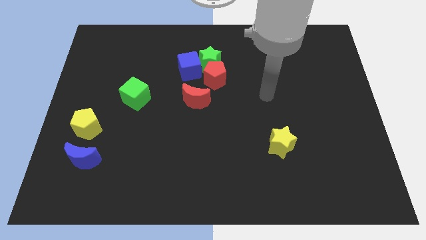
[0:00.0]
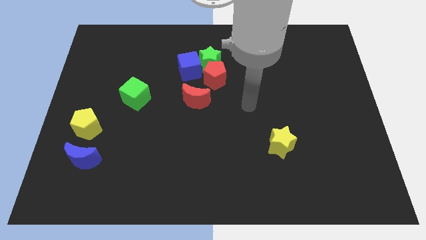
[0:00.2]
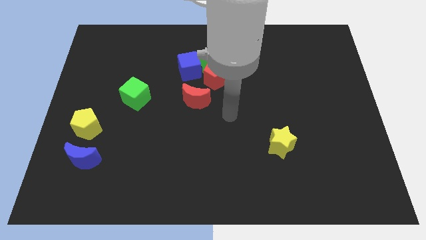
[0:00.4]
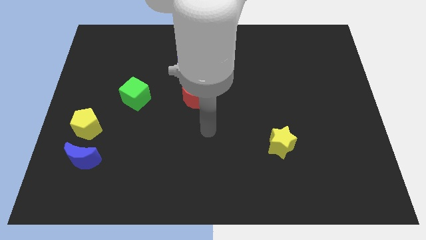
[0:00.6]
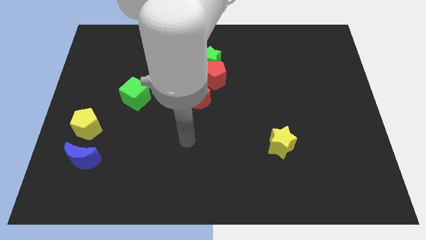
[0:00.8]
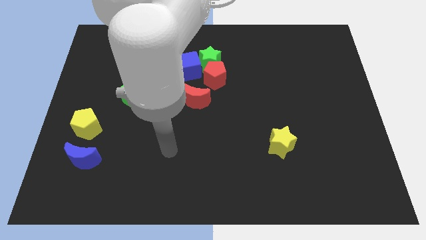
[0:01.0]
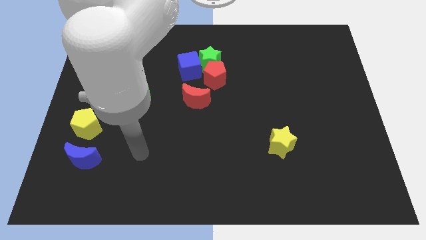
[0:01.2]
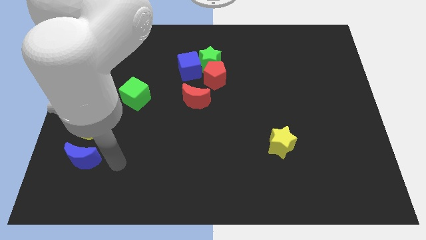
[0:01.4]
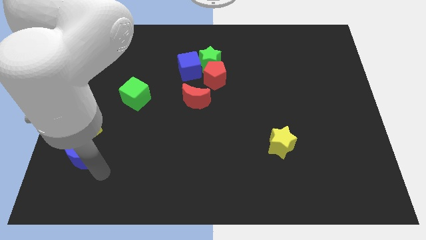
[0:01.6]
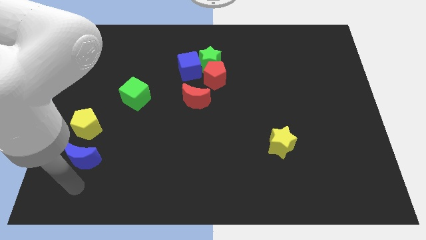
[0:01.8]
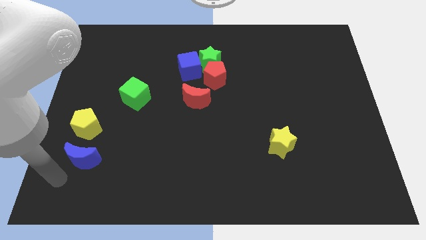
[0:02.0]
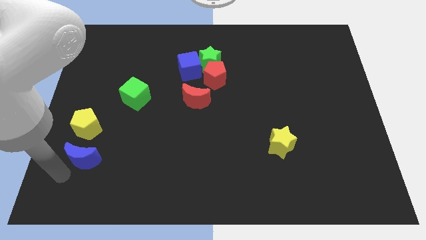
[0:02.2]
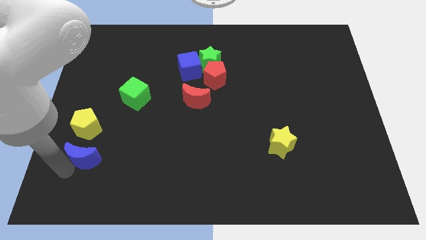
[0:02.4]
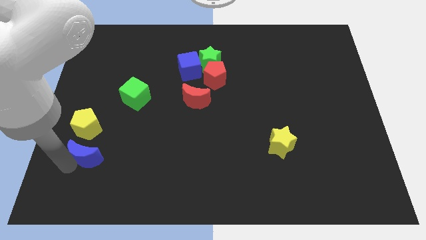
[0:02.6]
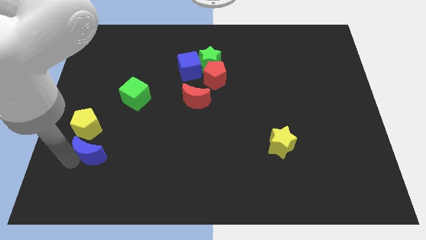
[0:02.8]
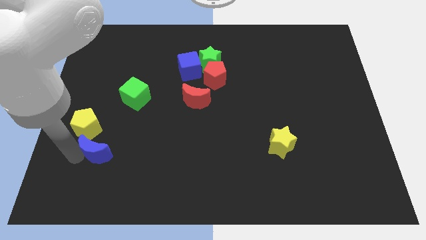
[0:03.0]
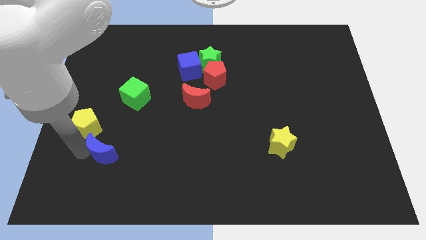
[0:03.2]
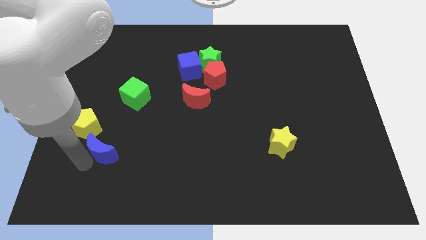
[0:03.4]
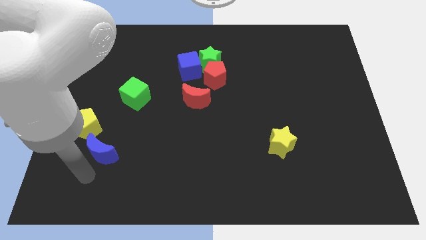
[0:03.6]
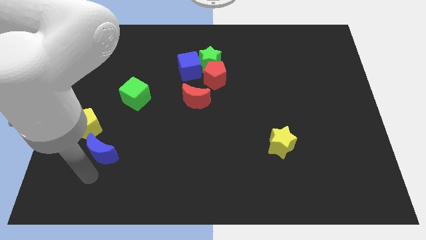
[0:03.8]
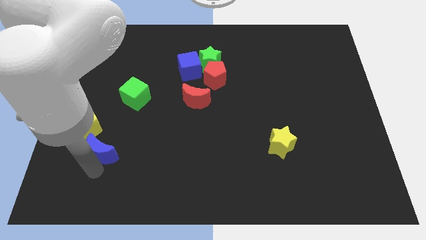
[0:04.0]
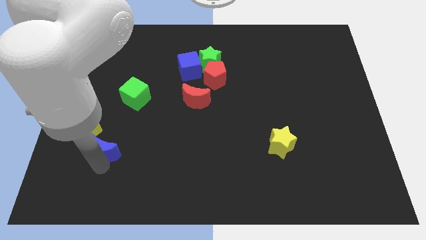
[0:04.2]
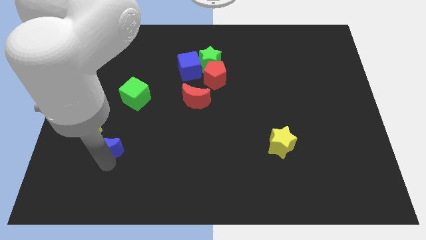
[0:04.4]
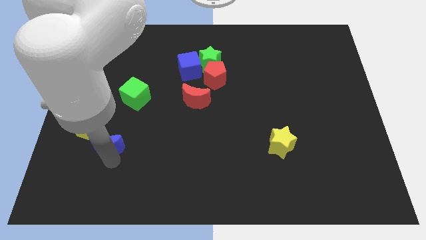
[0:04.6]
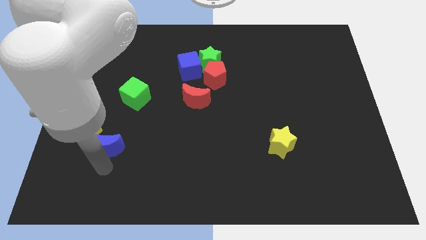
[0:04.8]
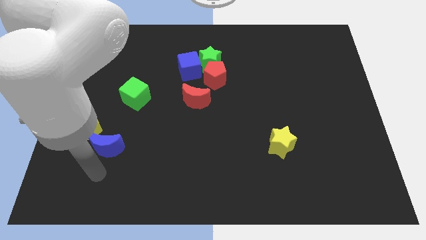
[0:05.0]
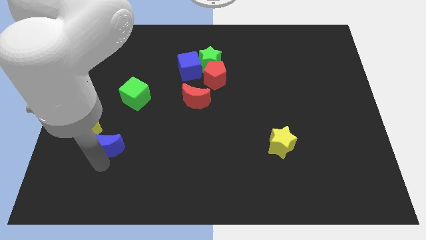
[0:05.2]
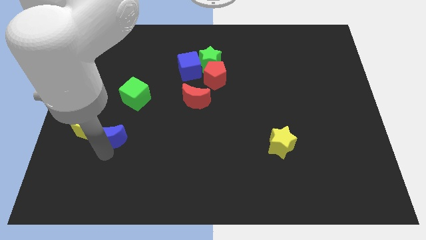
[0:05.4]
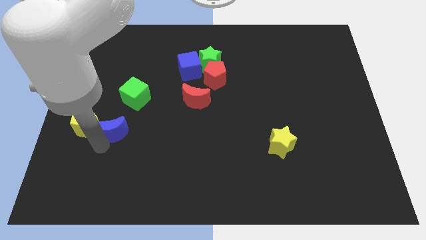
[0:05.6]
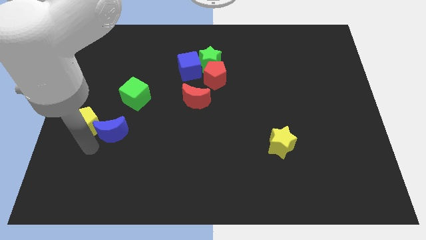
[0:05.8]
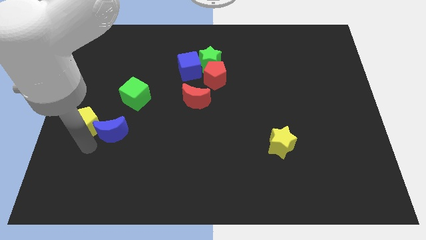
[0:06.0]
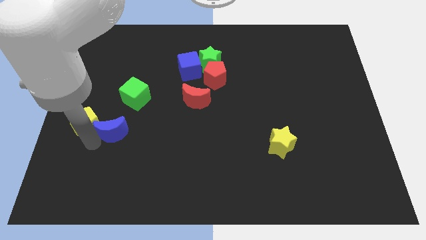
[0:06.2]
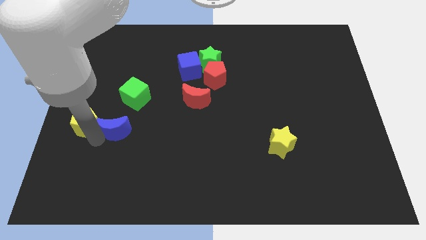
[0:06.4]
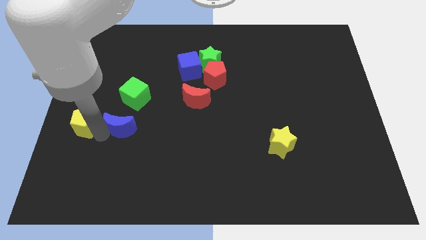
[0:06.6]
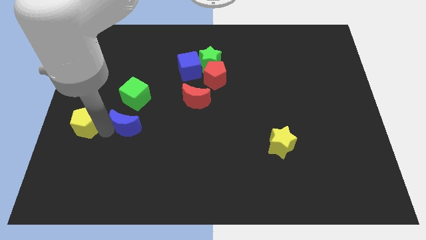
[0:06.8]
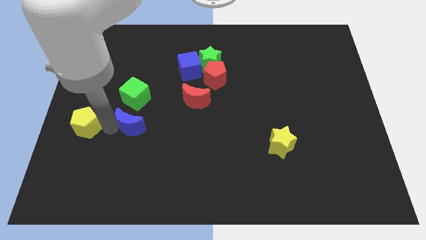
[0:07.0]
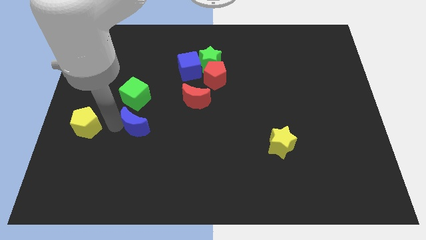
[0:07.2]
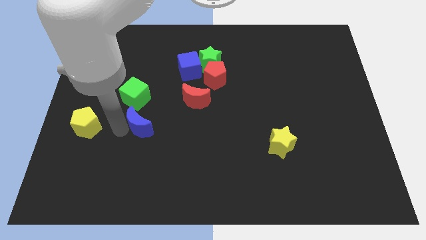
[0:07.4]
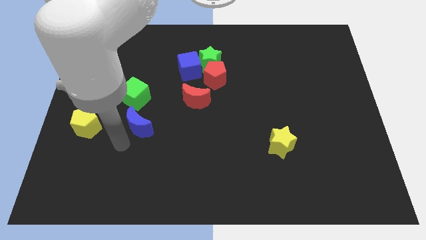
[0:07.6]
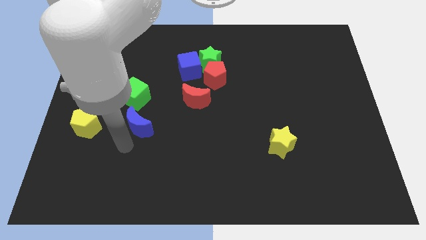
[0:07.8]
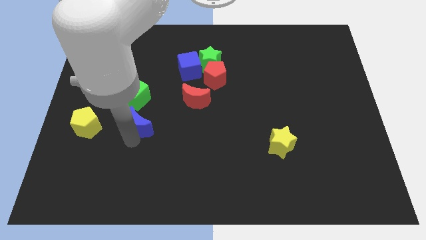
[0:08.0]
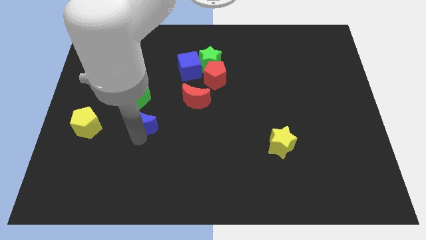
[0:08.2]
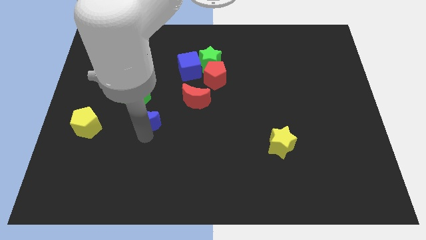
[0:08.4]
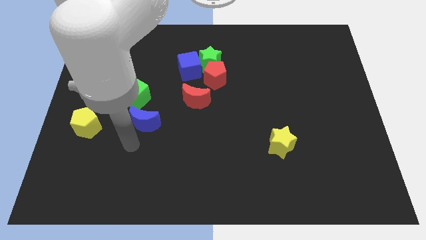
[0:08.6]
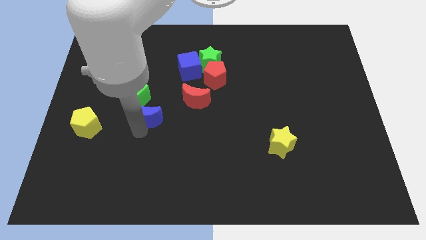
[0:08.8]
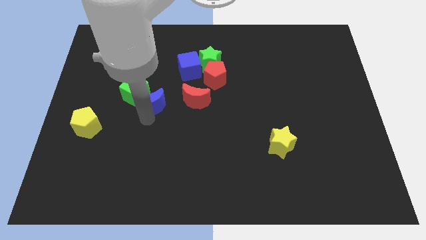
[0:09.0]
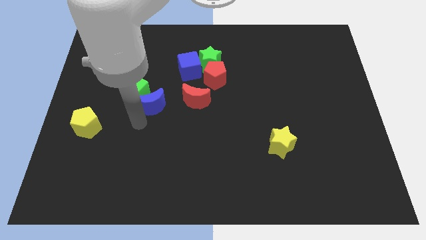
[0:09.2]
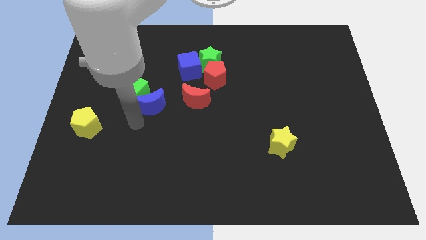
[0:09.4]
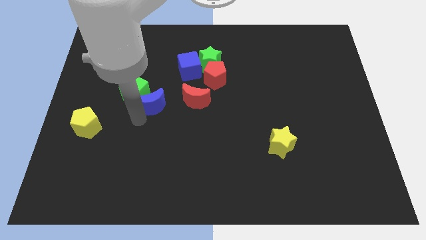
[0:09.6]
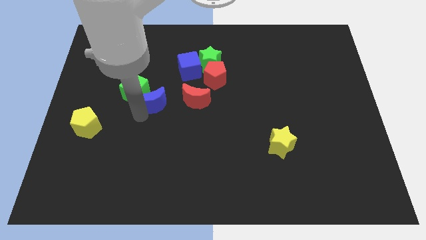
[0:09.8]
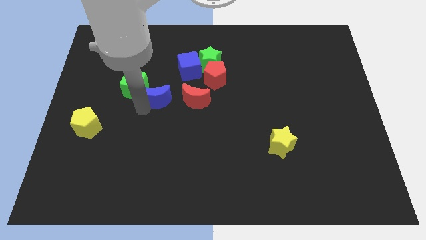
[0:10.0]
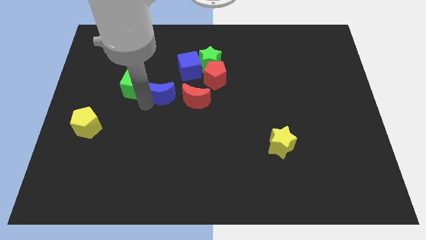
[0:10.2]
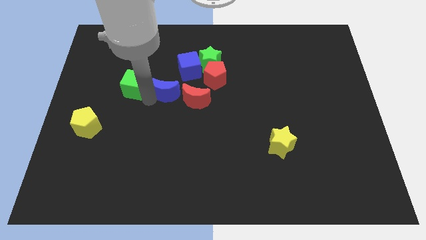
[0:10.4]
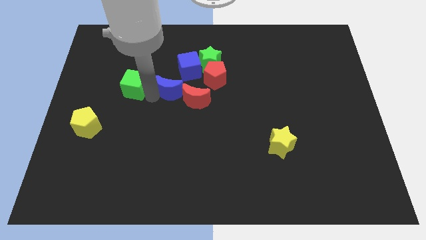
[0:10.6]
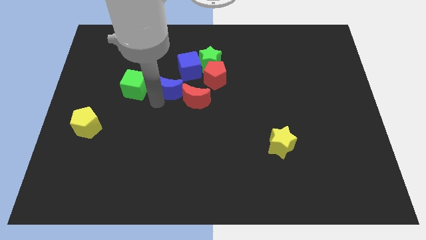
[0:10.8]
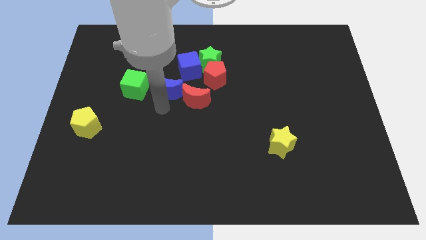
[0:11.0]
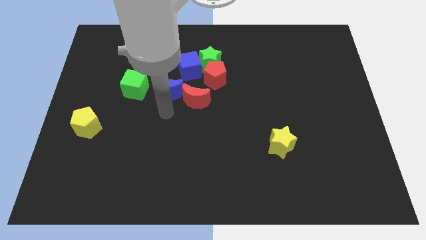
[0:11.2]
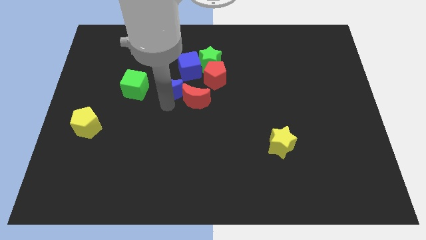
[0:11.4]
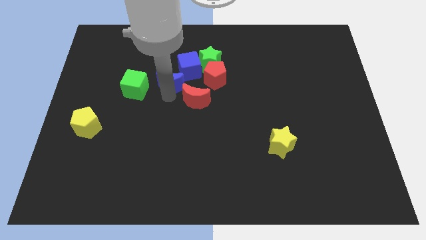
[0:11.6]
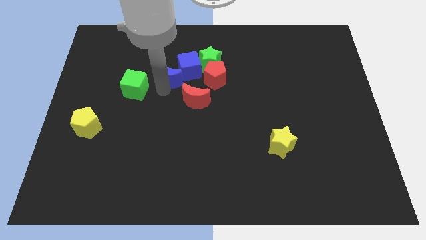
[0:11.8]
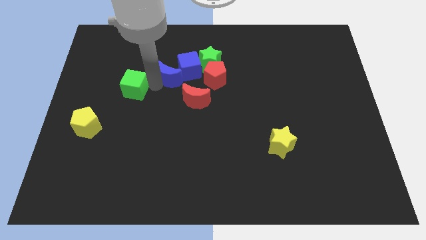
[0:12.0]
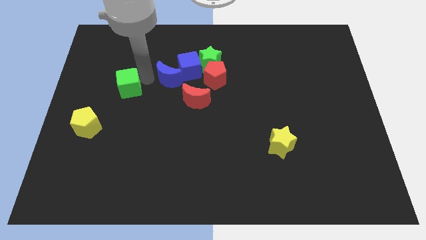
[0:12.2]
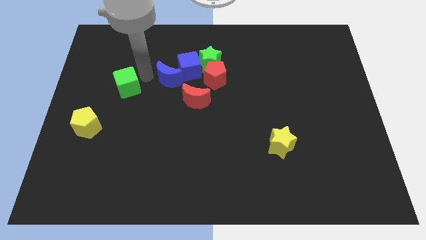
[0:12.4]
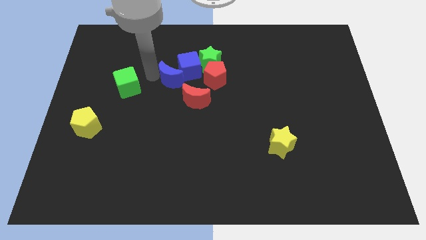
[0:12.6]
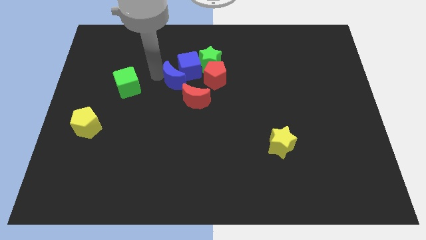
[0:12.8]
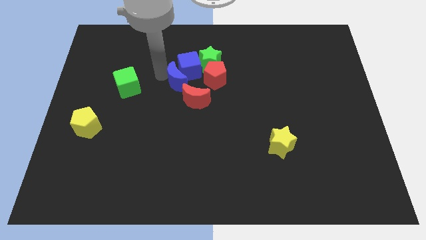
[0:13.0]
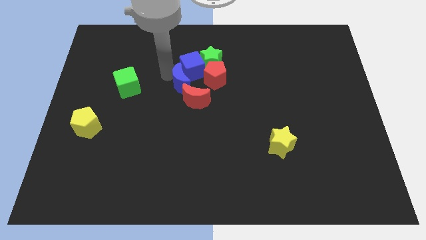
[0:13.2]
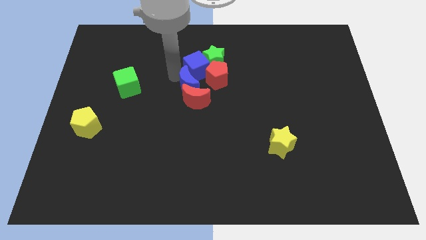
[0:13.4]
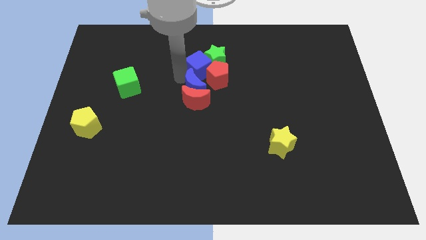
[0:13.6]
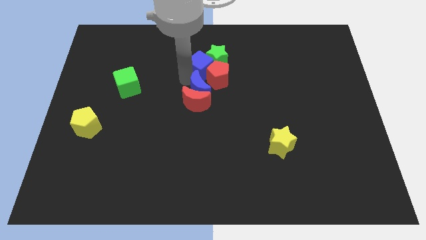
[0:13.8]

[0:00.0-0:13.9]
put the blue moon to the red pentagon
